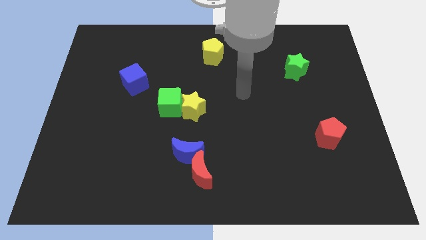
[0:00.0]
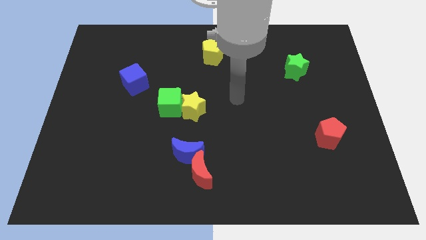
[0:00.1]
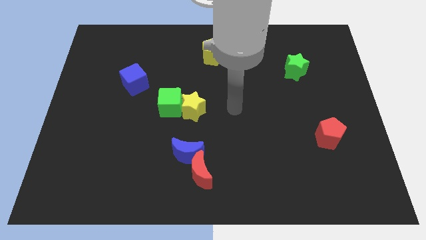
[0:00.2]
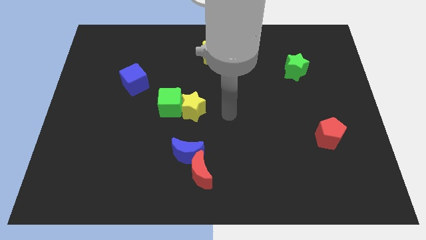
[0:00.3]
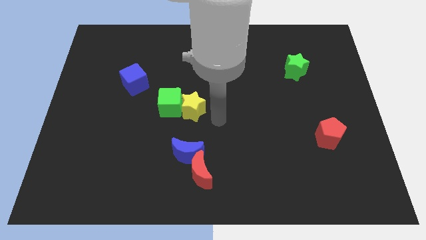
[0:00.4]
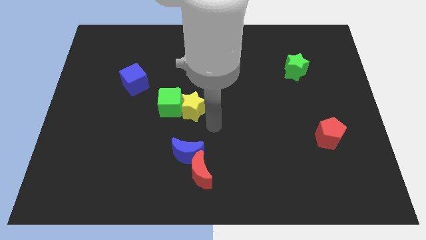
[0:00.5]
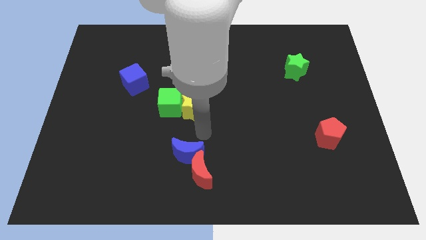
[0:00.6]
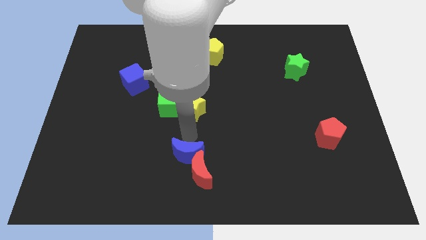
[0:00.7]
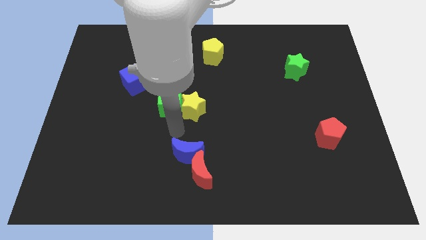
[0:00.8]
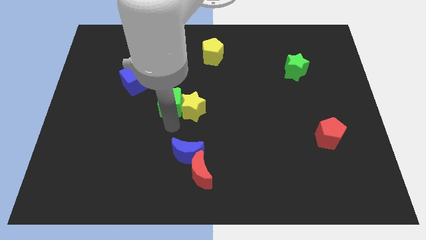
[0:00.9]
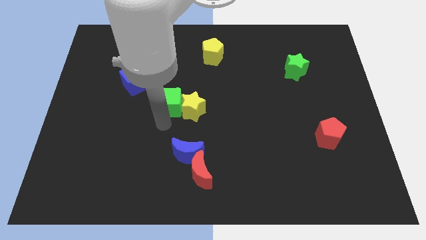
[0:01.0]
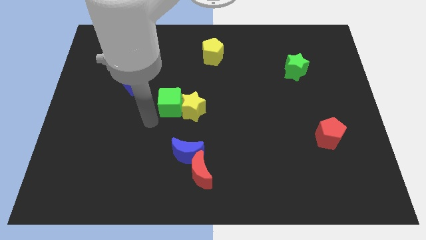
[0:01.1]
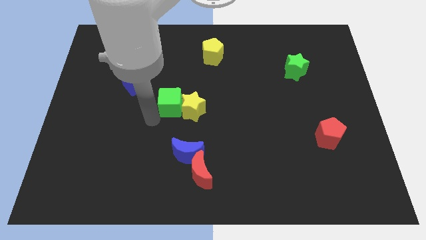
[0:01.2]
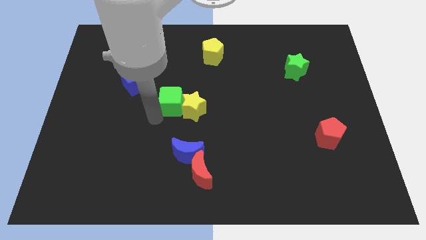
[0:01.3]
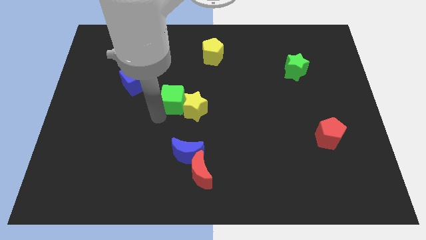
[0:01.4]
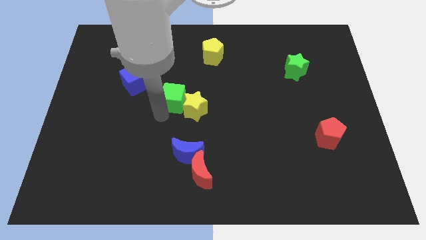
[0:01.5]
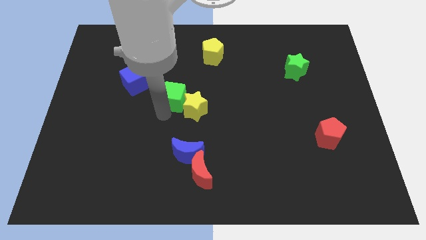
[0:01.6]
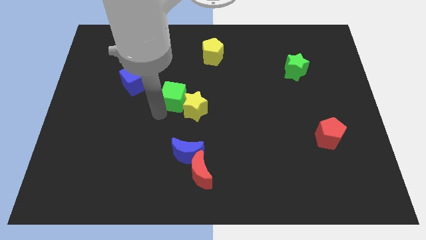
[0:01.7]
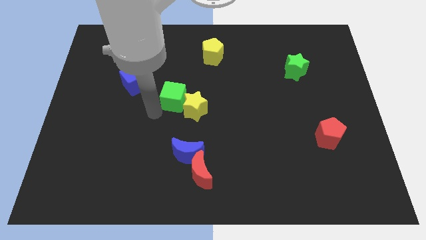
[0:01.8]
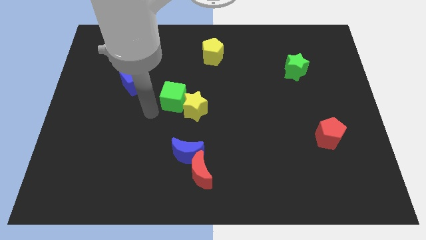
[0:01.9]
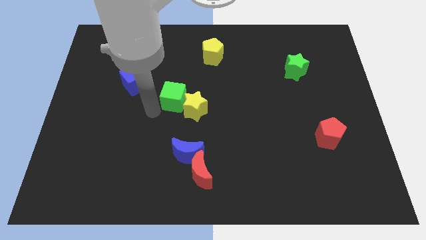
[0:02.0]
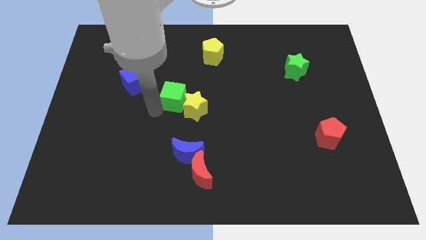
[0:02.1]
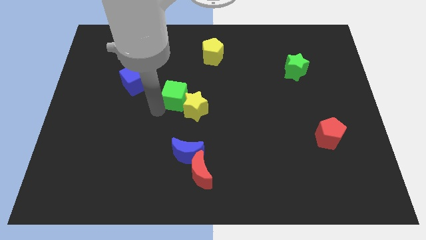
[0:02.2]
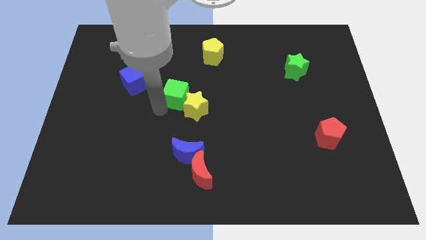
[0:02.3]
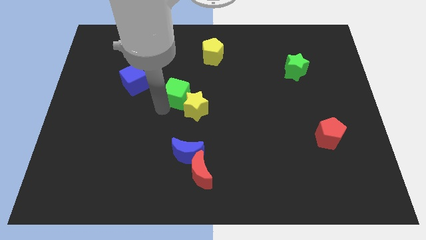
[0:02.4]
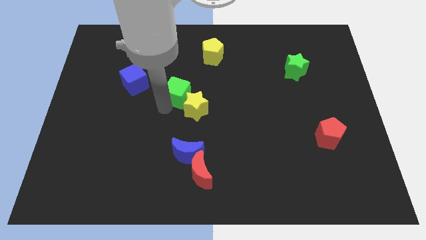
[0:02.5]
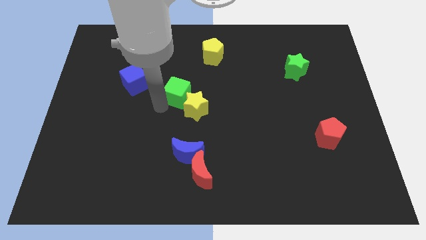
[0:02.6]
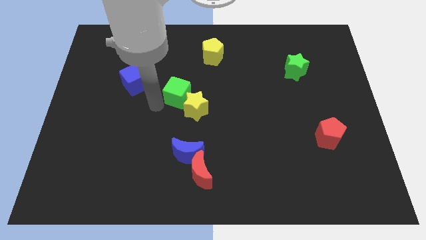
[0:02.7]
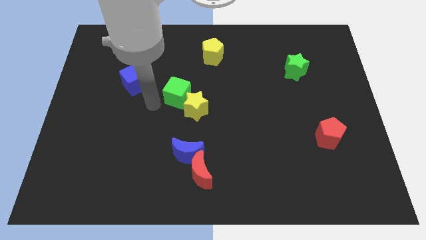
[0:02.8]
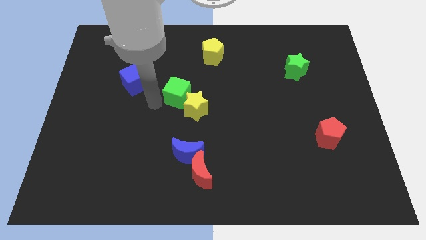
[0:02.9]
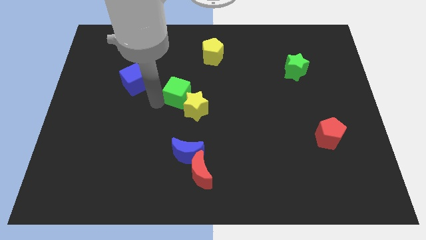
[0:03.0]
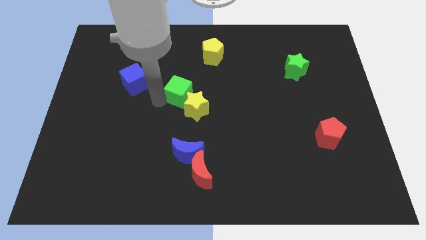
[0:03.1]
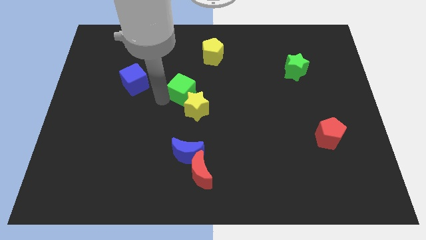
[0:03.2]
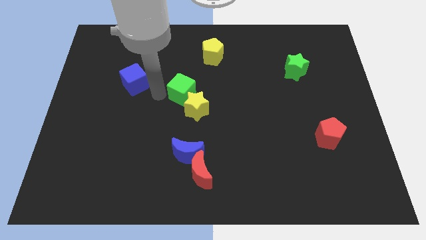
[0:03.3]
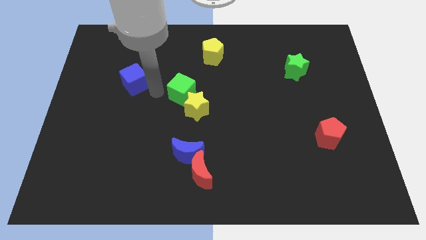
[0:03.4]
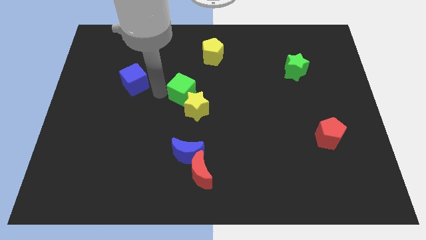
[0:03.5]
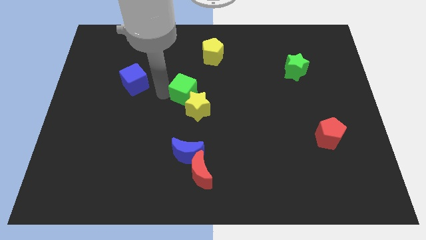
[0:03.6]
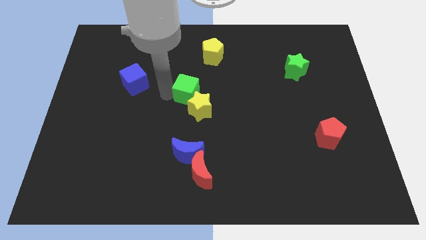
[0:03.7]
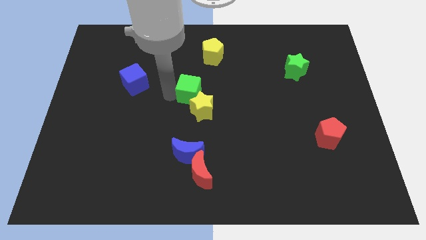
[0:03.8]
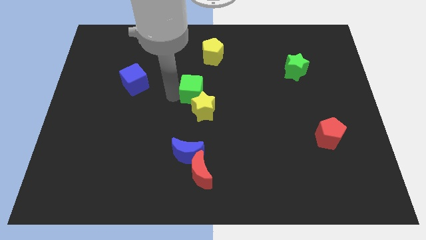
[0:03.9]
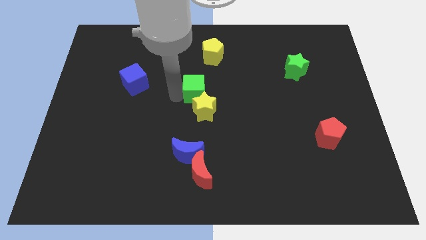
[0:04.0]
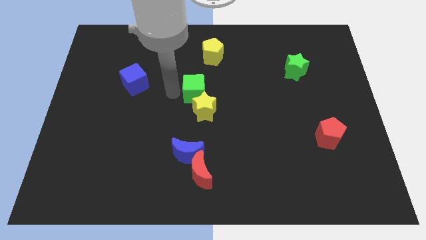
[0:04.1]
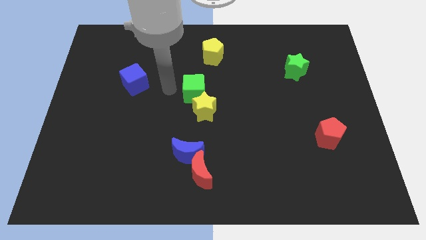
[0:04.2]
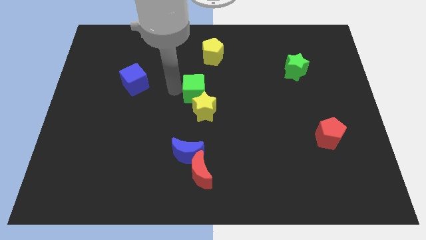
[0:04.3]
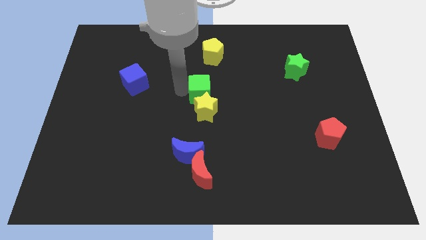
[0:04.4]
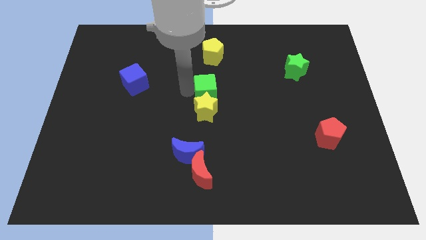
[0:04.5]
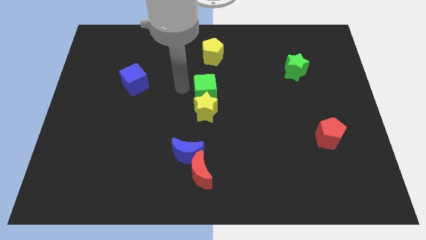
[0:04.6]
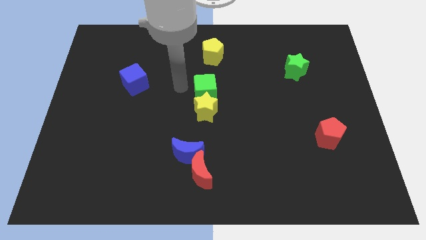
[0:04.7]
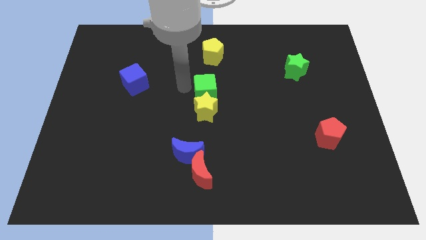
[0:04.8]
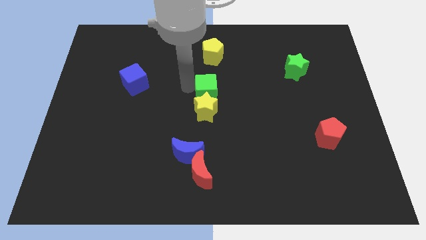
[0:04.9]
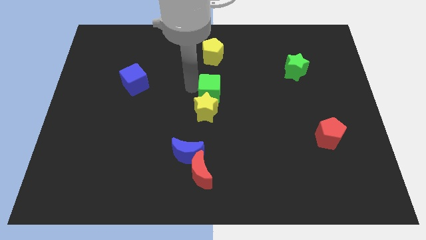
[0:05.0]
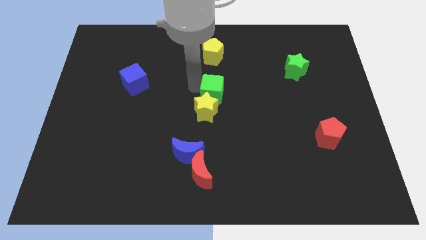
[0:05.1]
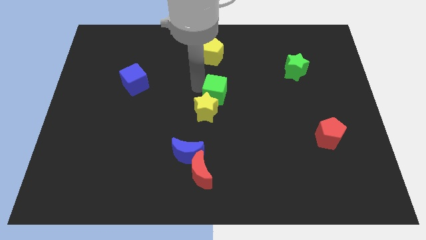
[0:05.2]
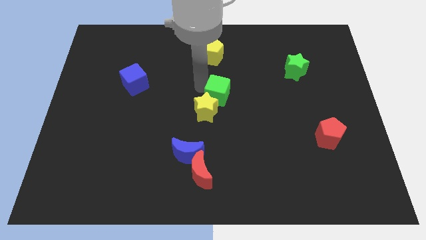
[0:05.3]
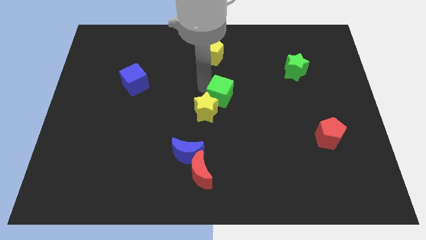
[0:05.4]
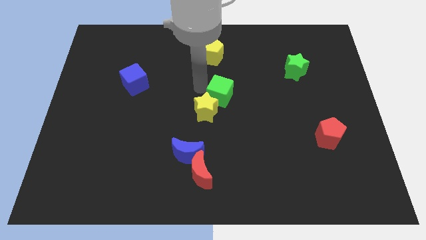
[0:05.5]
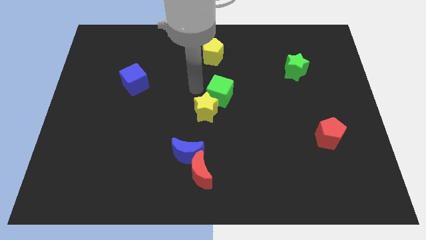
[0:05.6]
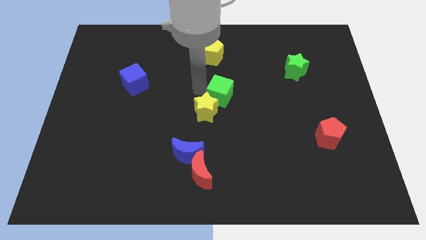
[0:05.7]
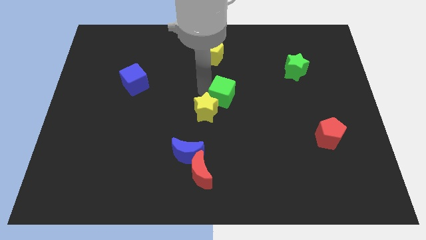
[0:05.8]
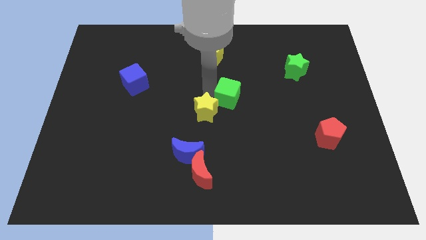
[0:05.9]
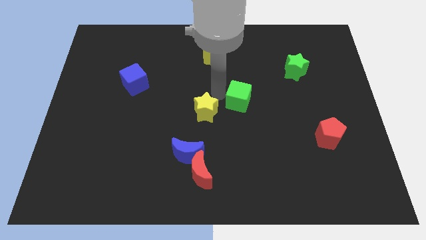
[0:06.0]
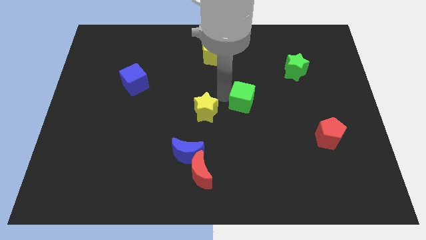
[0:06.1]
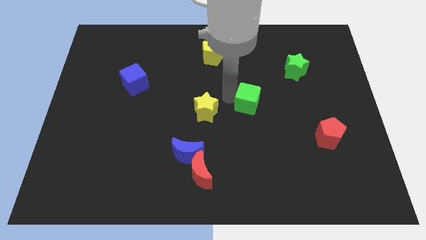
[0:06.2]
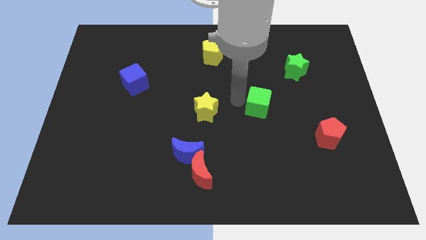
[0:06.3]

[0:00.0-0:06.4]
move the green cube right

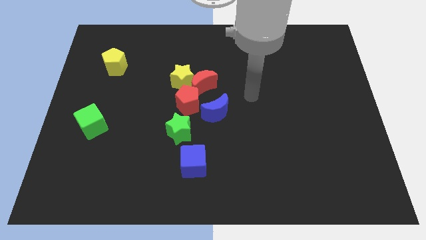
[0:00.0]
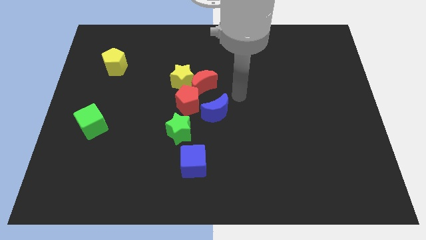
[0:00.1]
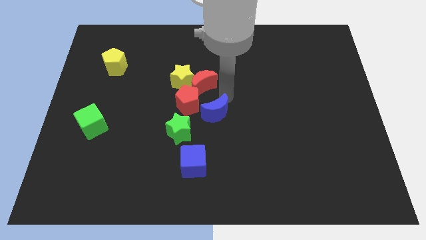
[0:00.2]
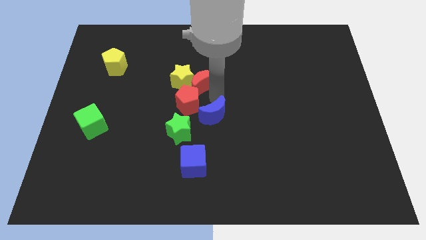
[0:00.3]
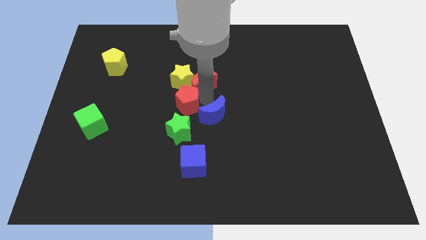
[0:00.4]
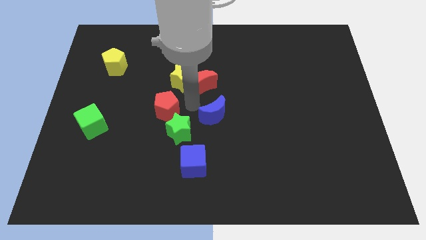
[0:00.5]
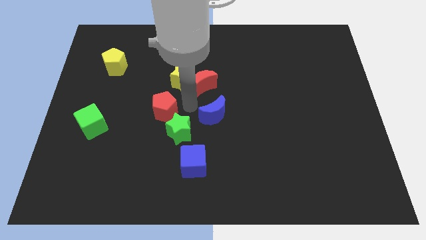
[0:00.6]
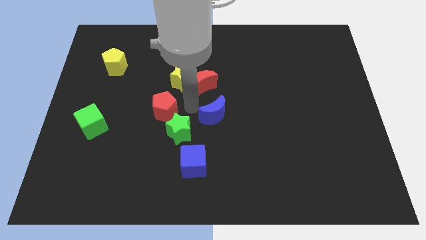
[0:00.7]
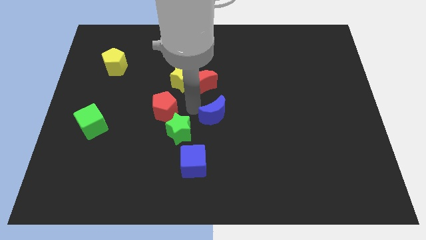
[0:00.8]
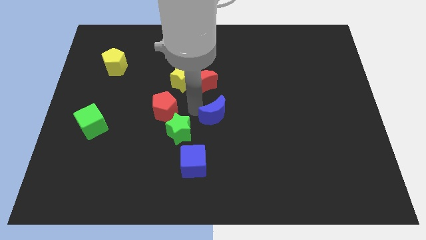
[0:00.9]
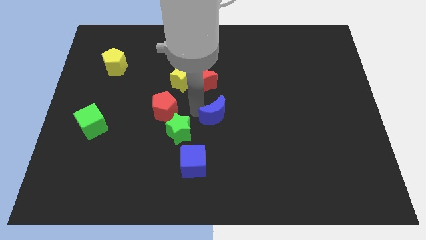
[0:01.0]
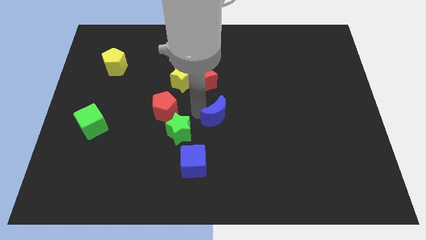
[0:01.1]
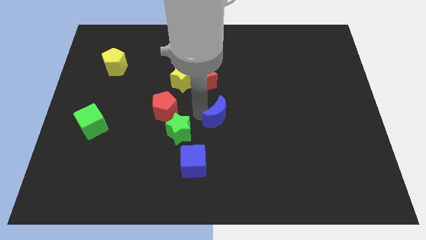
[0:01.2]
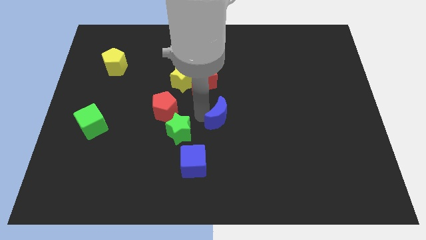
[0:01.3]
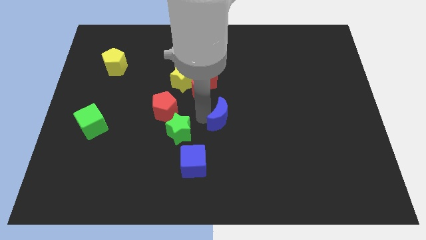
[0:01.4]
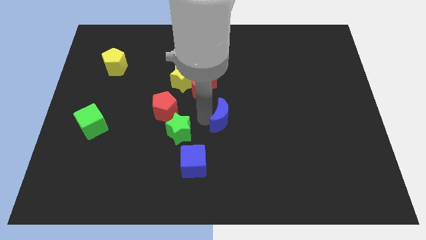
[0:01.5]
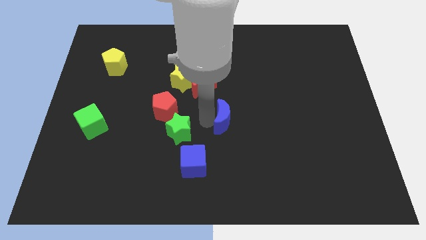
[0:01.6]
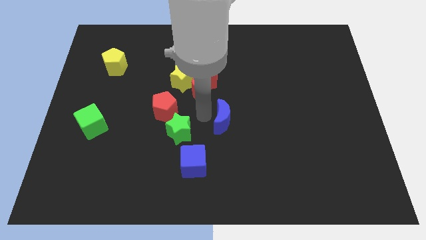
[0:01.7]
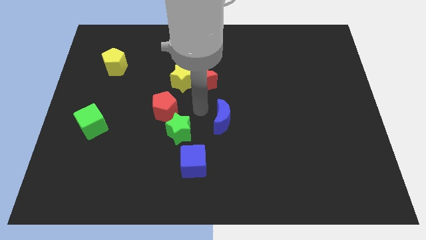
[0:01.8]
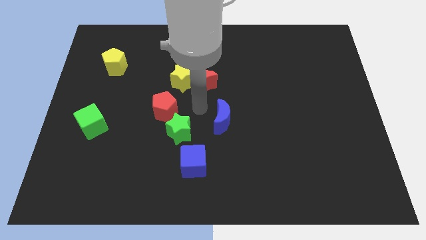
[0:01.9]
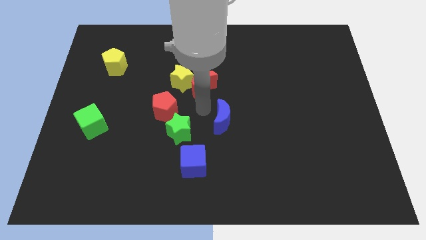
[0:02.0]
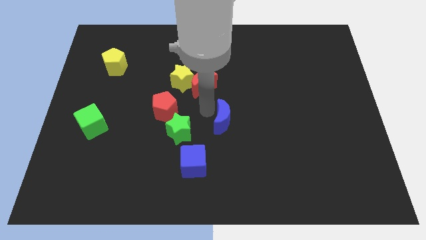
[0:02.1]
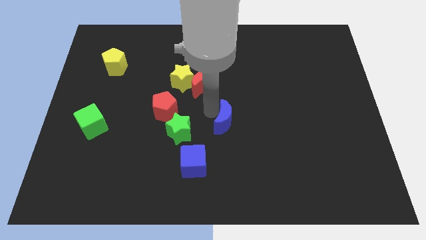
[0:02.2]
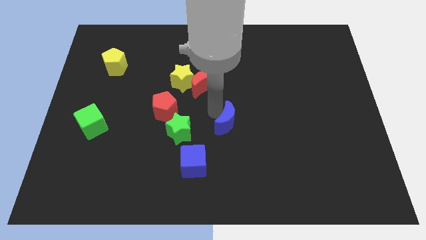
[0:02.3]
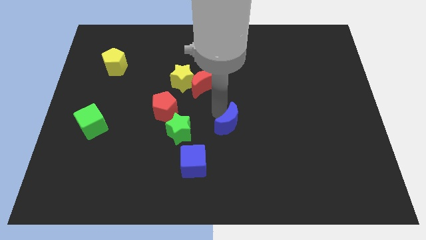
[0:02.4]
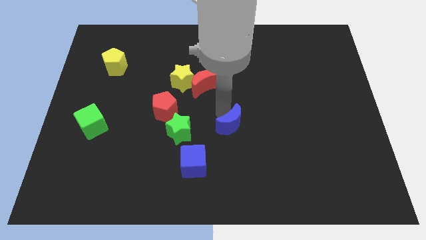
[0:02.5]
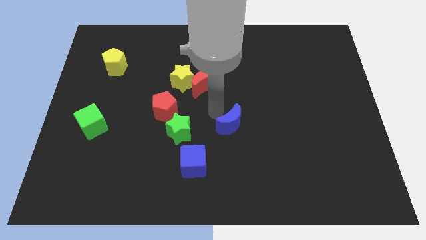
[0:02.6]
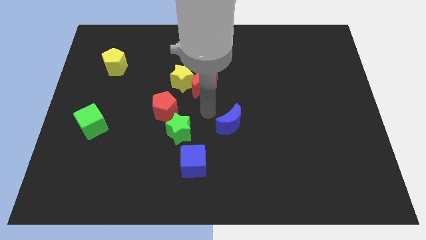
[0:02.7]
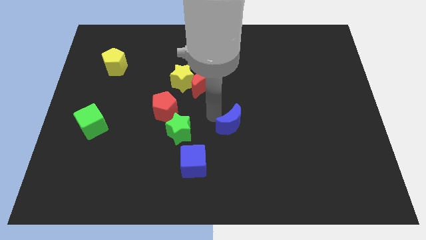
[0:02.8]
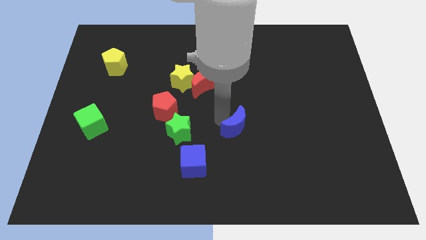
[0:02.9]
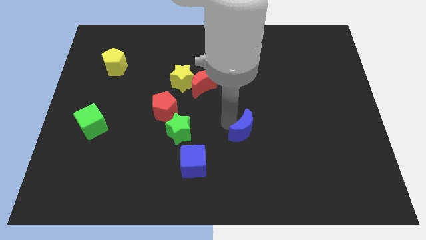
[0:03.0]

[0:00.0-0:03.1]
slightly slide the blue moon downwards and right
